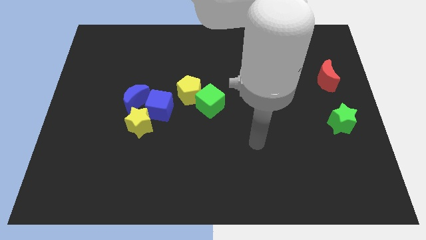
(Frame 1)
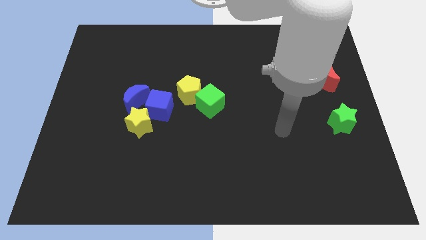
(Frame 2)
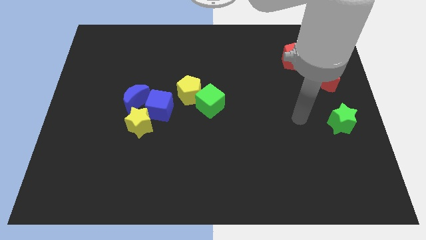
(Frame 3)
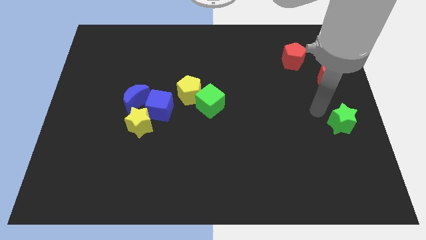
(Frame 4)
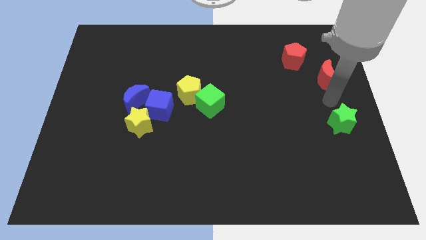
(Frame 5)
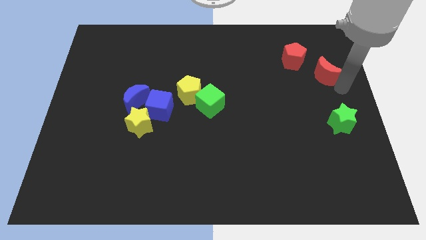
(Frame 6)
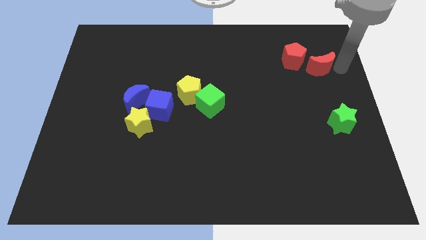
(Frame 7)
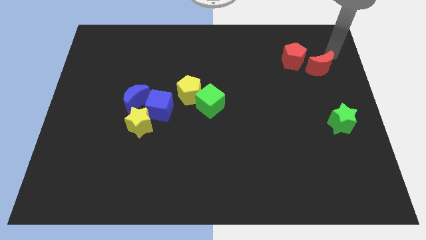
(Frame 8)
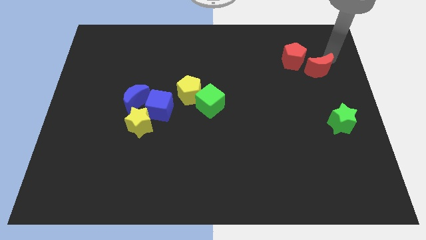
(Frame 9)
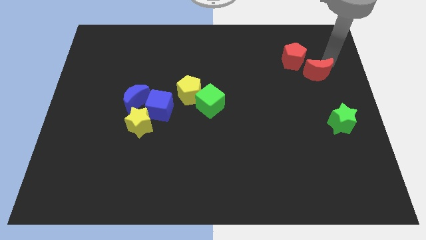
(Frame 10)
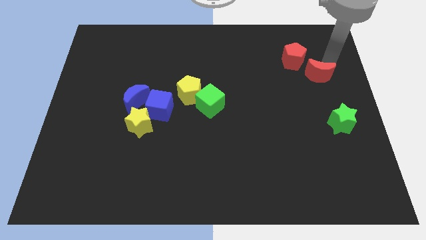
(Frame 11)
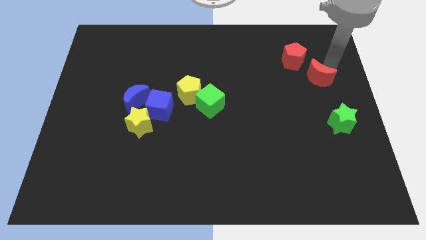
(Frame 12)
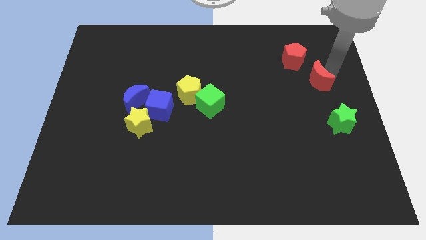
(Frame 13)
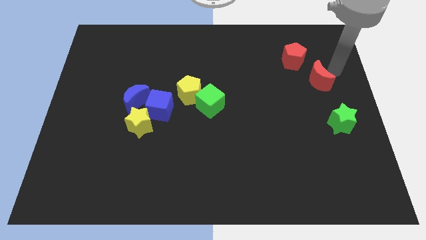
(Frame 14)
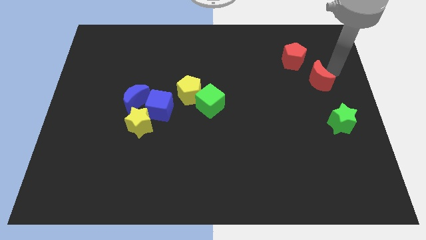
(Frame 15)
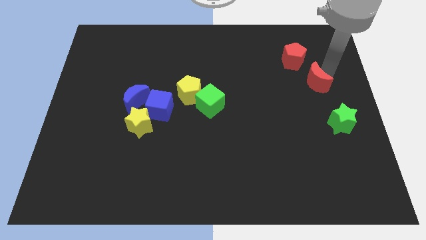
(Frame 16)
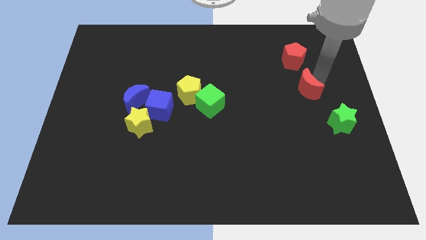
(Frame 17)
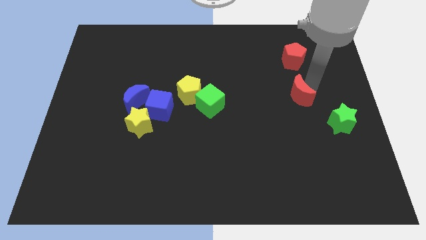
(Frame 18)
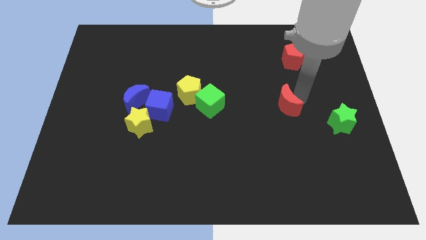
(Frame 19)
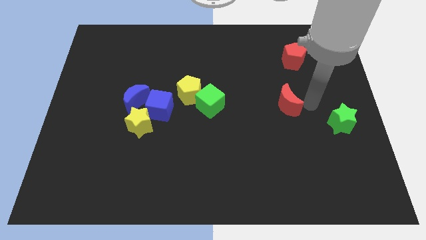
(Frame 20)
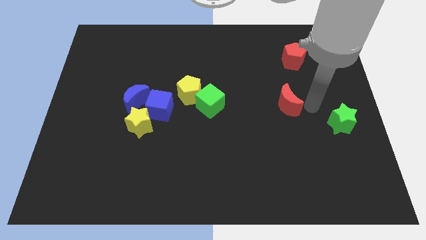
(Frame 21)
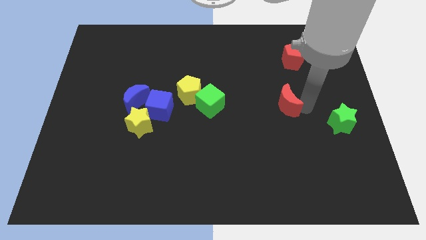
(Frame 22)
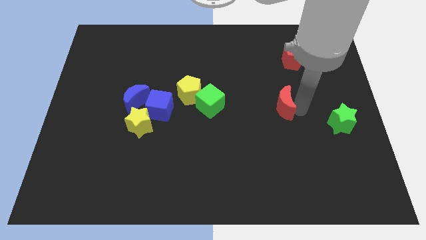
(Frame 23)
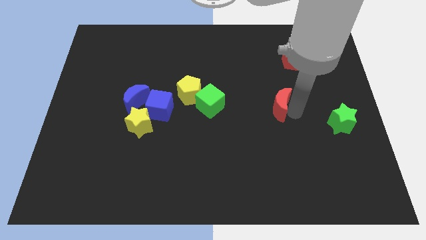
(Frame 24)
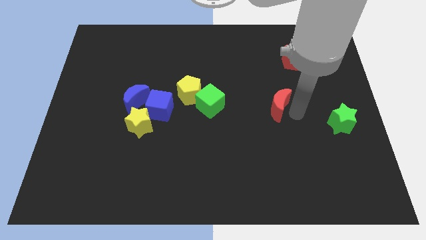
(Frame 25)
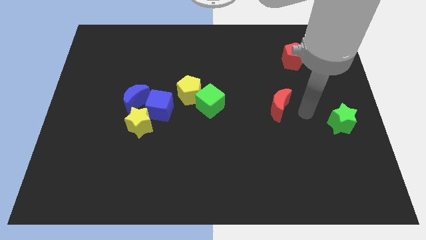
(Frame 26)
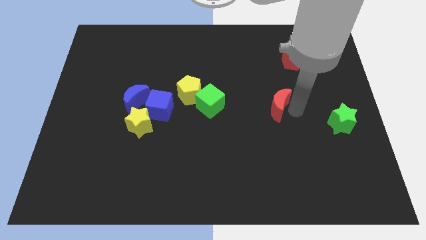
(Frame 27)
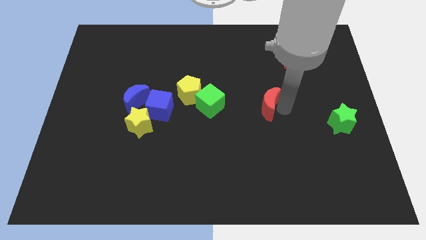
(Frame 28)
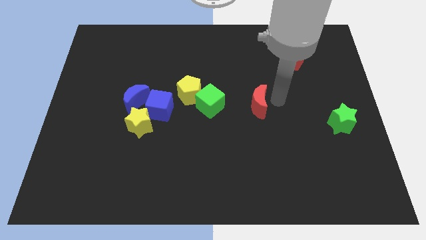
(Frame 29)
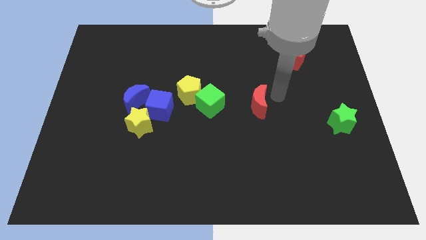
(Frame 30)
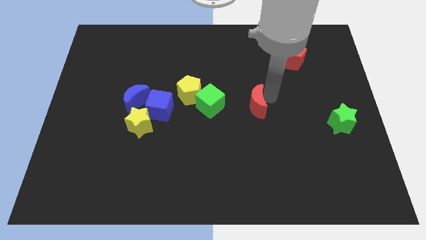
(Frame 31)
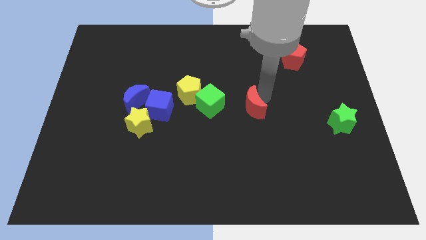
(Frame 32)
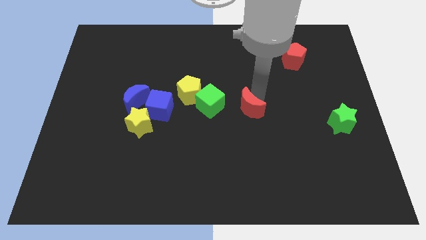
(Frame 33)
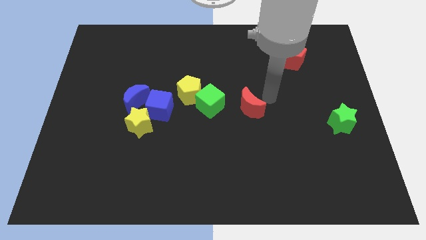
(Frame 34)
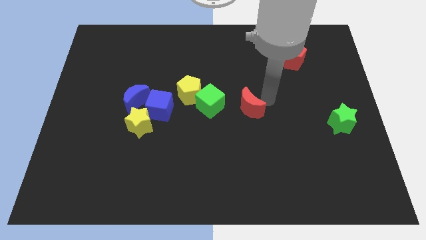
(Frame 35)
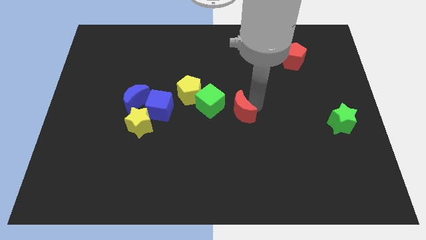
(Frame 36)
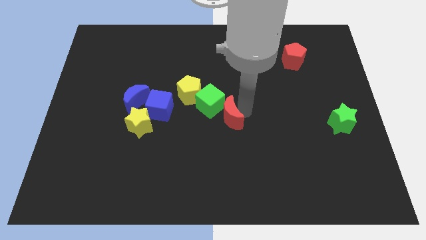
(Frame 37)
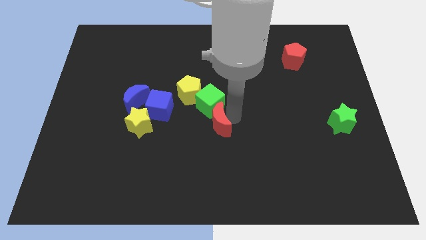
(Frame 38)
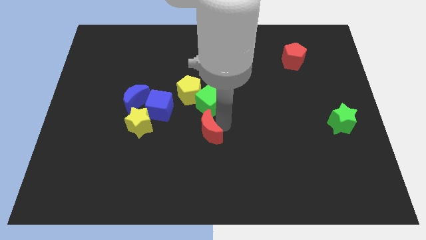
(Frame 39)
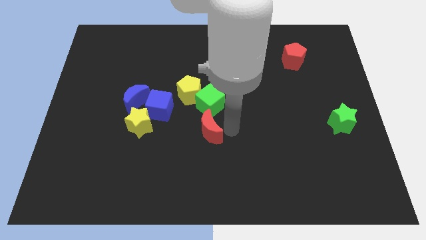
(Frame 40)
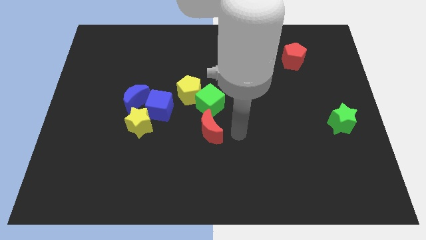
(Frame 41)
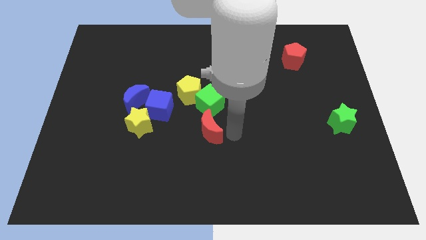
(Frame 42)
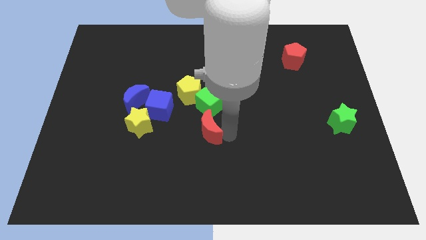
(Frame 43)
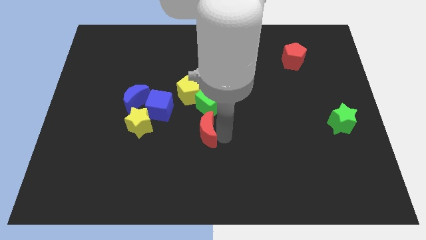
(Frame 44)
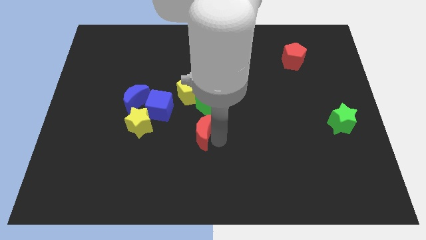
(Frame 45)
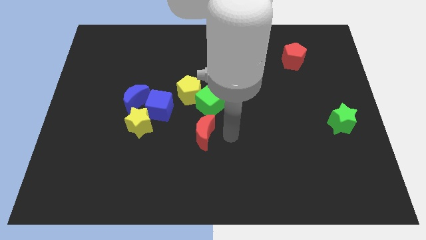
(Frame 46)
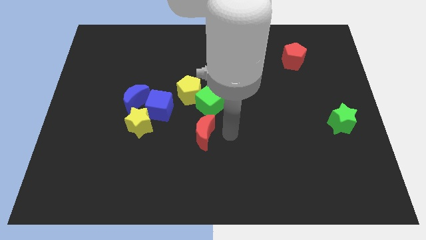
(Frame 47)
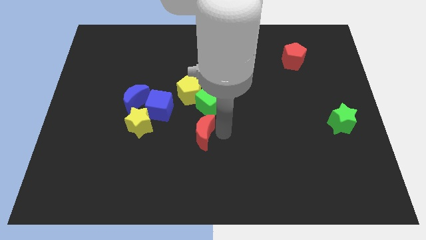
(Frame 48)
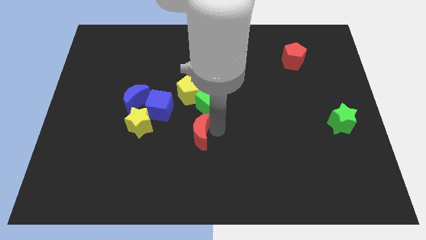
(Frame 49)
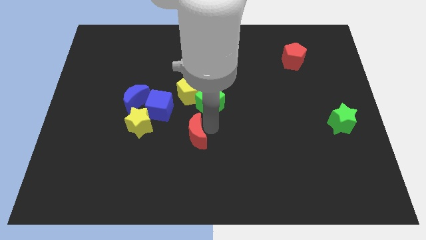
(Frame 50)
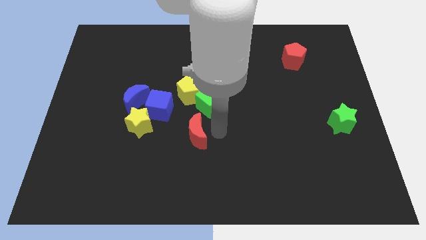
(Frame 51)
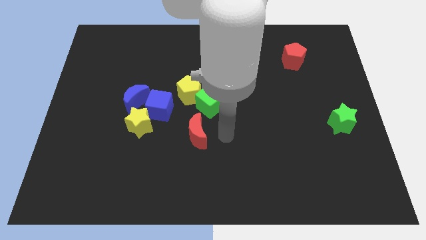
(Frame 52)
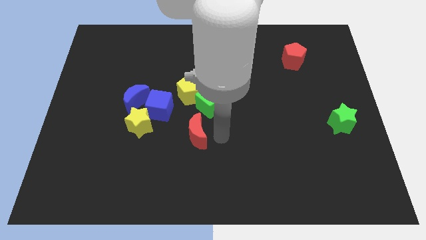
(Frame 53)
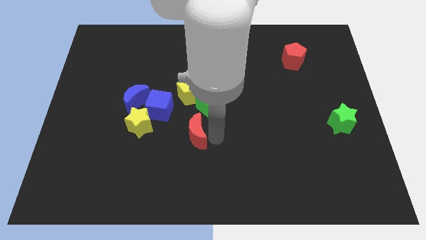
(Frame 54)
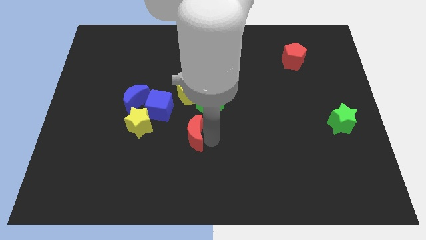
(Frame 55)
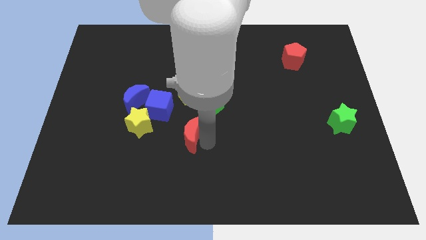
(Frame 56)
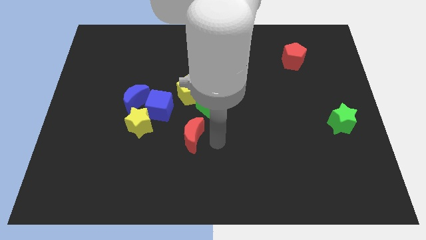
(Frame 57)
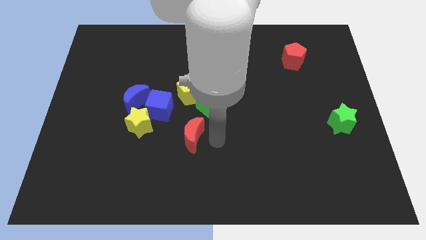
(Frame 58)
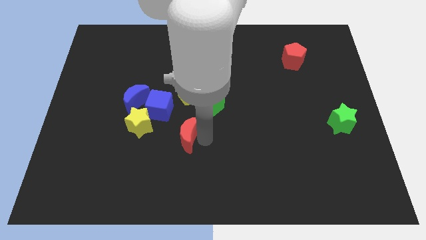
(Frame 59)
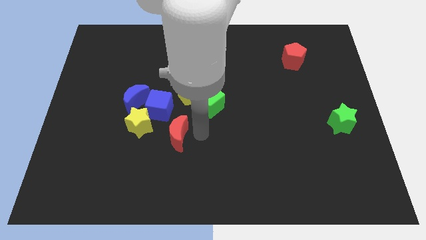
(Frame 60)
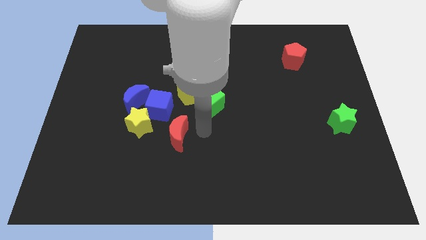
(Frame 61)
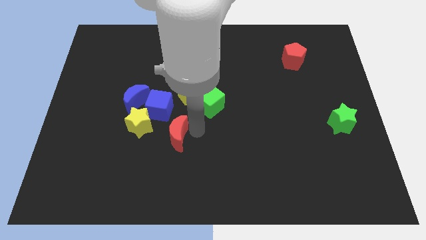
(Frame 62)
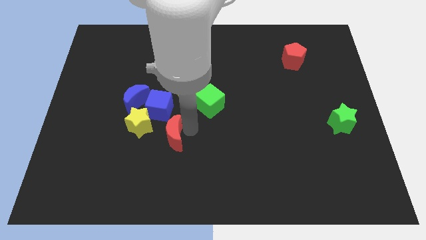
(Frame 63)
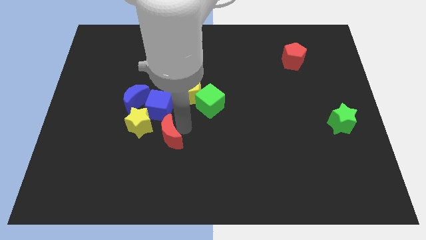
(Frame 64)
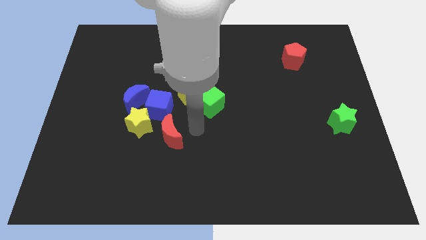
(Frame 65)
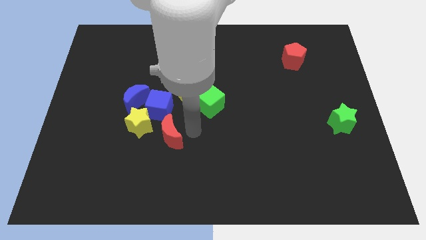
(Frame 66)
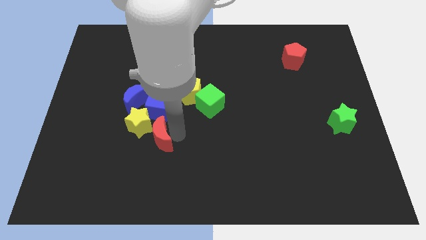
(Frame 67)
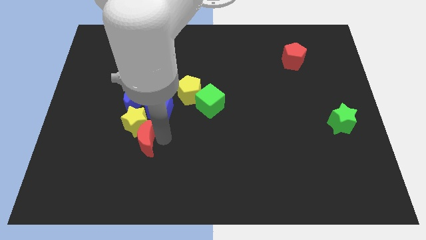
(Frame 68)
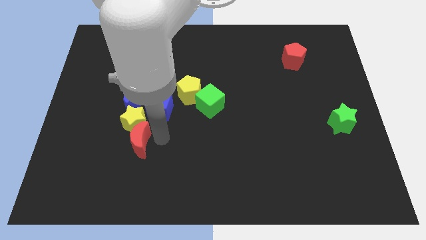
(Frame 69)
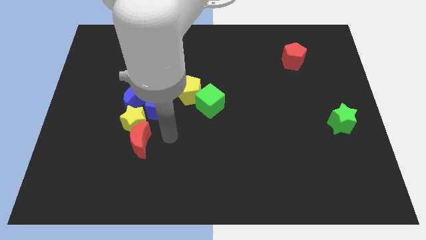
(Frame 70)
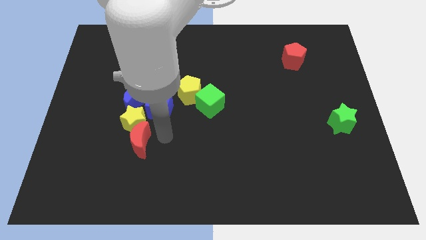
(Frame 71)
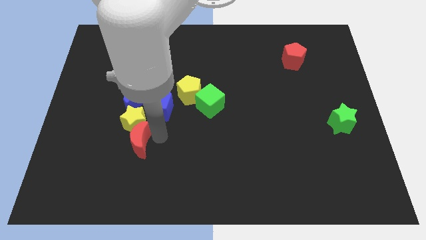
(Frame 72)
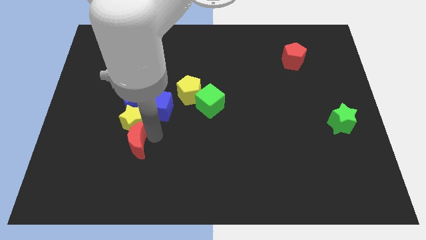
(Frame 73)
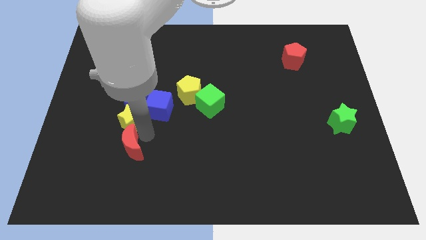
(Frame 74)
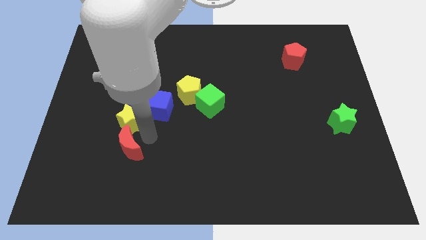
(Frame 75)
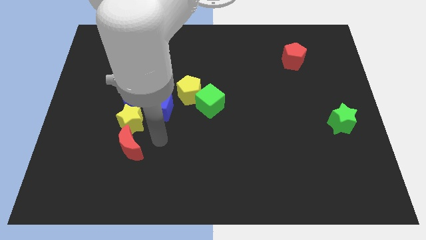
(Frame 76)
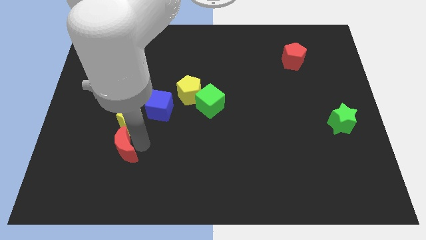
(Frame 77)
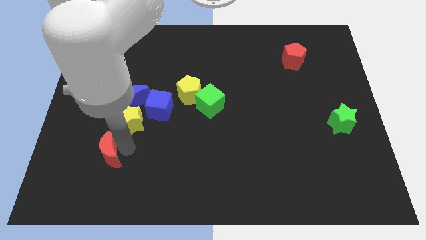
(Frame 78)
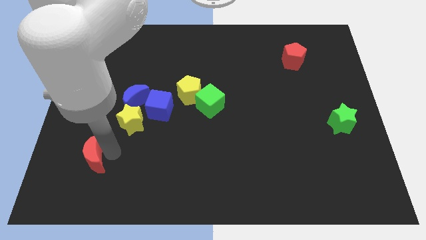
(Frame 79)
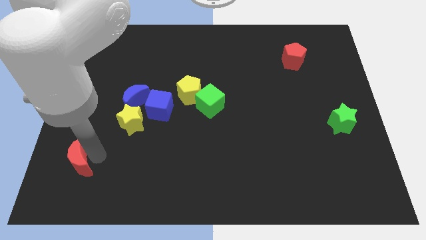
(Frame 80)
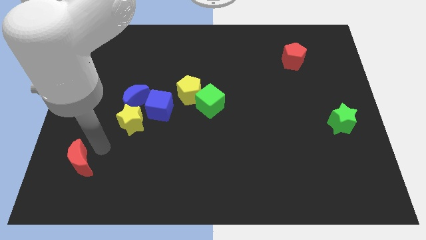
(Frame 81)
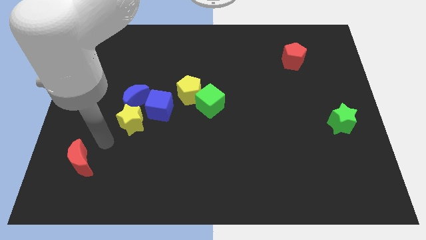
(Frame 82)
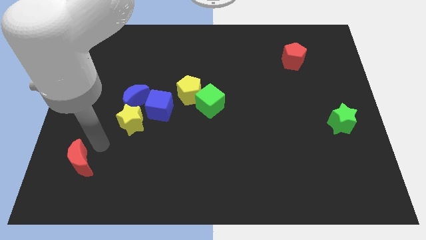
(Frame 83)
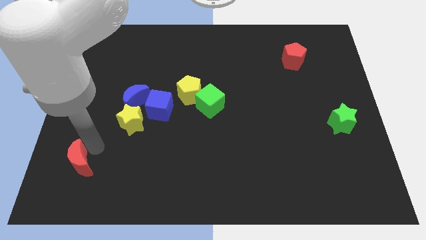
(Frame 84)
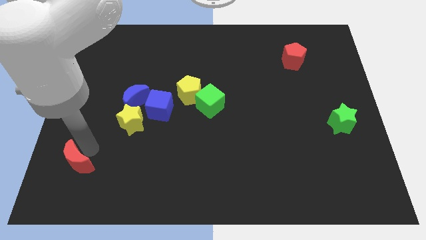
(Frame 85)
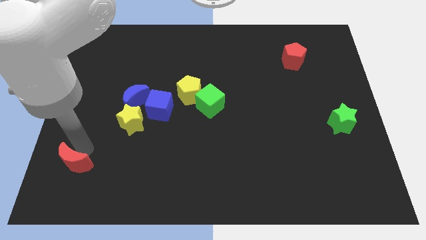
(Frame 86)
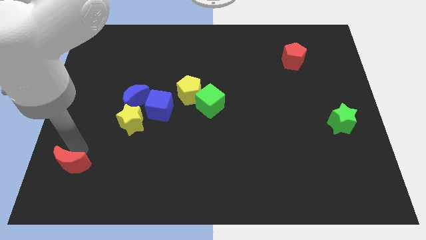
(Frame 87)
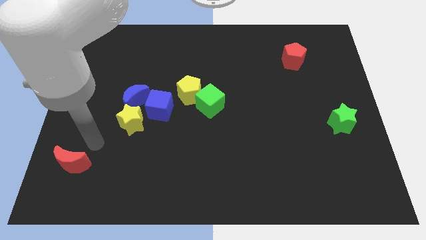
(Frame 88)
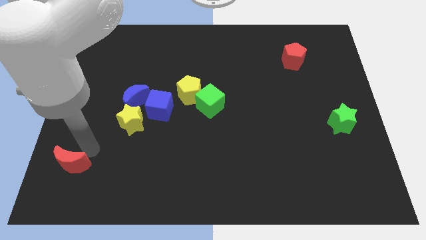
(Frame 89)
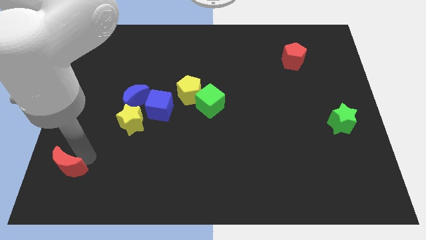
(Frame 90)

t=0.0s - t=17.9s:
push the red moon to the bottom left
